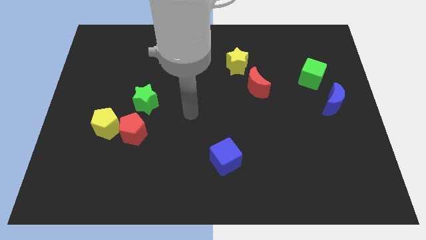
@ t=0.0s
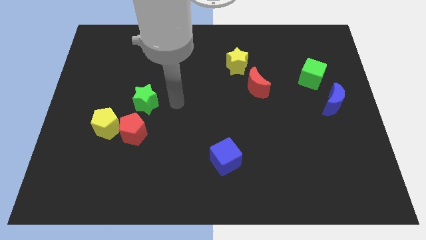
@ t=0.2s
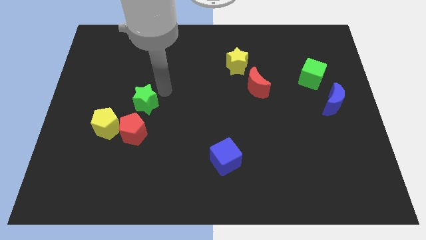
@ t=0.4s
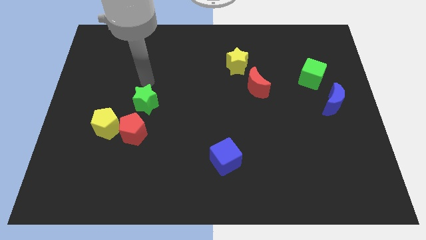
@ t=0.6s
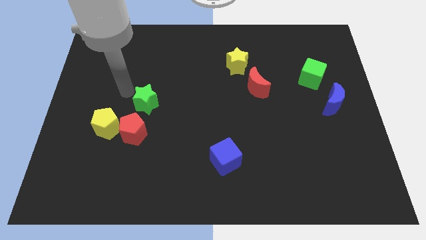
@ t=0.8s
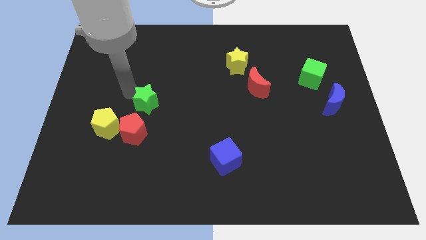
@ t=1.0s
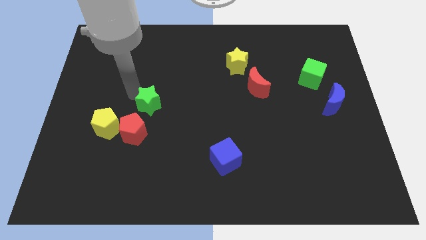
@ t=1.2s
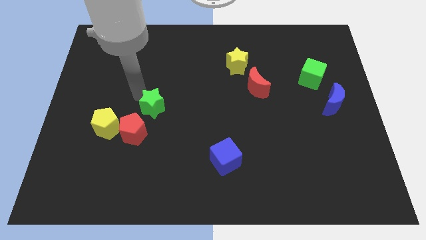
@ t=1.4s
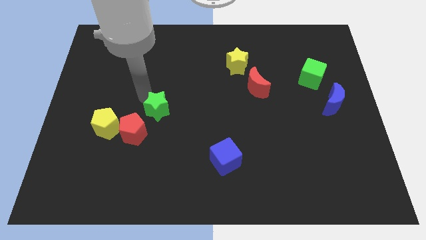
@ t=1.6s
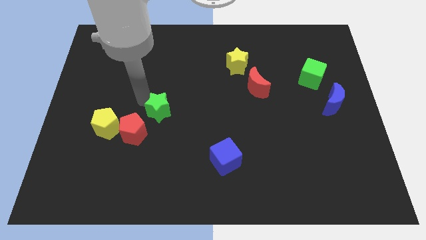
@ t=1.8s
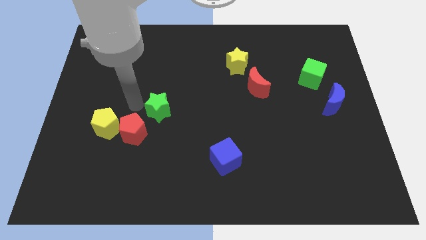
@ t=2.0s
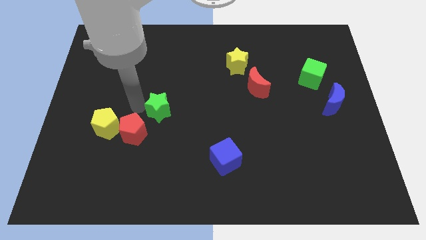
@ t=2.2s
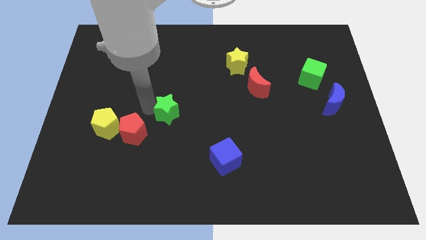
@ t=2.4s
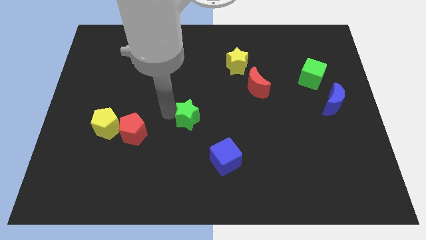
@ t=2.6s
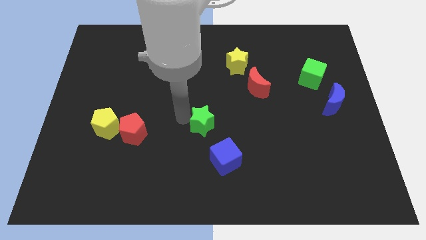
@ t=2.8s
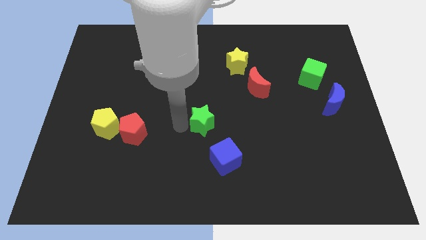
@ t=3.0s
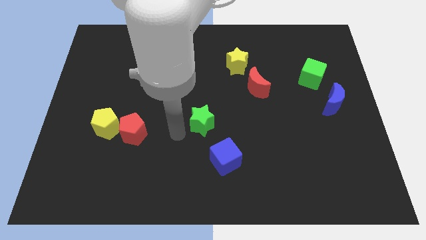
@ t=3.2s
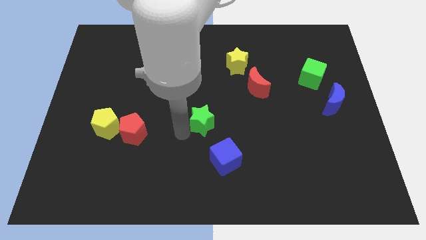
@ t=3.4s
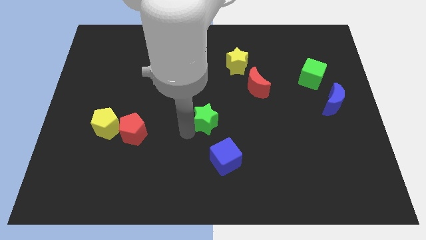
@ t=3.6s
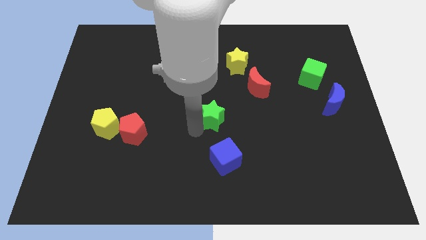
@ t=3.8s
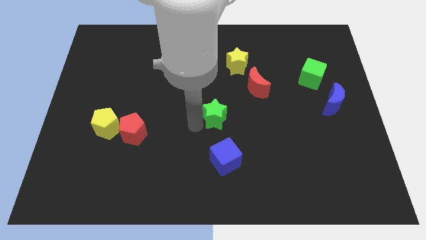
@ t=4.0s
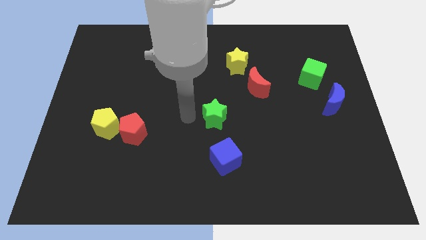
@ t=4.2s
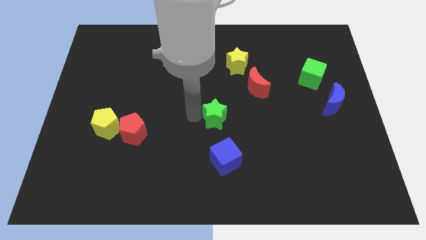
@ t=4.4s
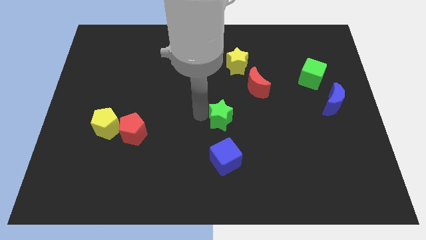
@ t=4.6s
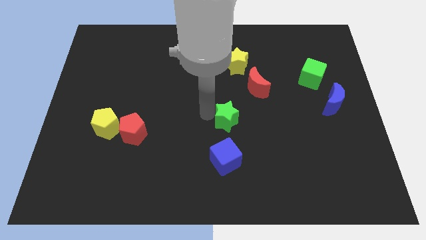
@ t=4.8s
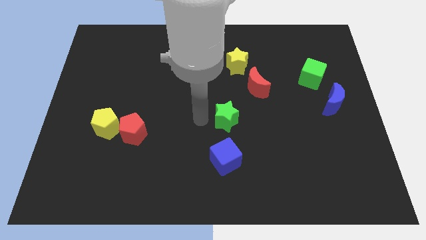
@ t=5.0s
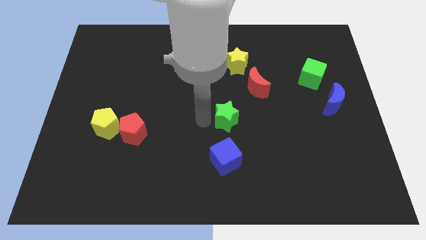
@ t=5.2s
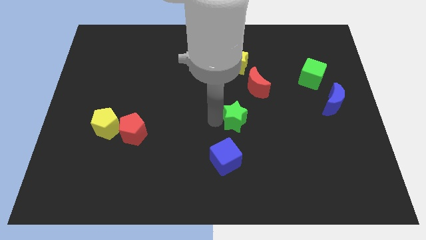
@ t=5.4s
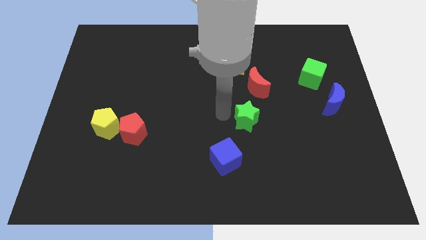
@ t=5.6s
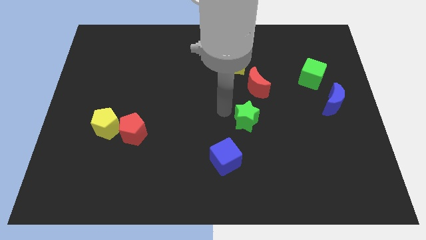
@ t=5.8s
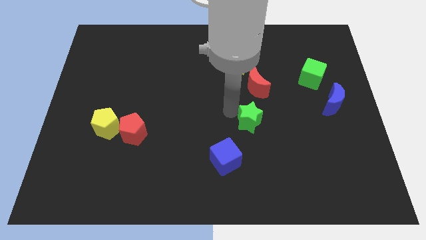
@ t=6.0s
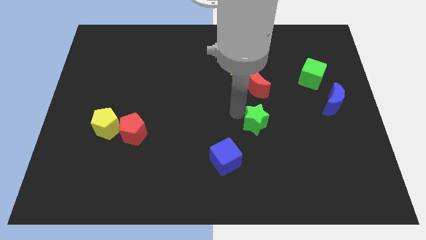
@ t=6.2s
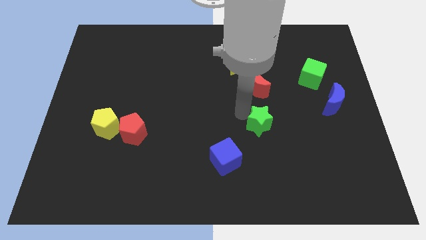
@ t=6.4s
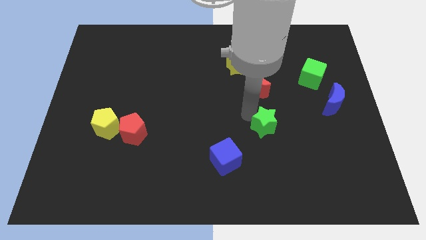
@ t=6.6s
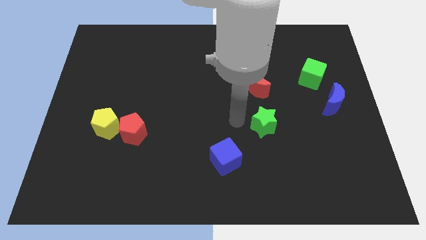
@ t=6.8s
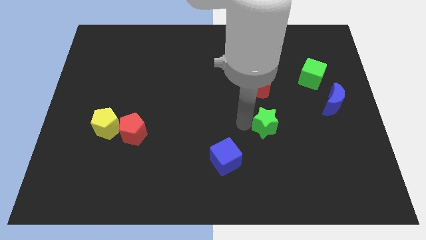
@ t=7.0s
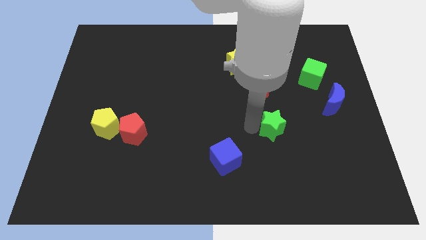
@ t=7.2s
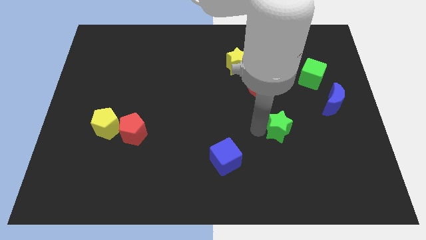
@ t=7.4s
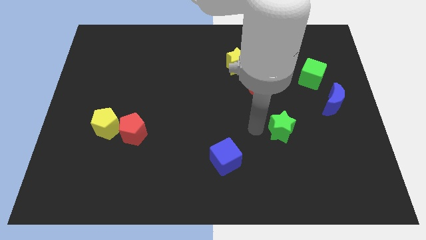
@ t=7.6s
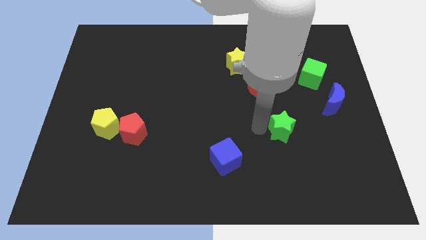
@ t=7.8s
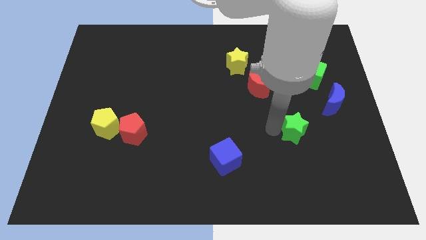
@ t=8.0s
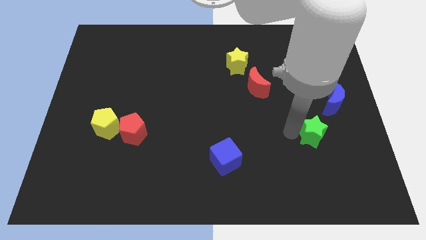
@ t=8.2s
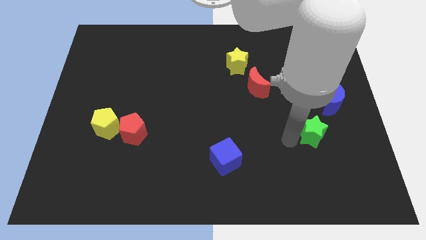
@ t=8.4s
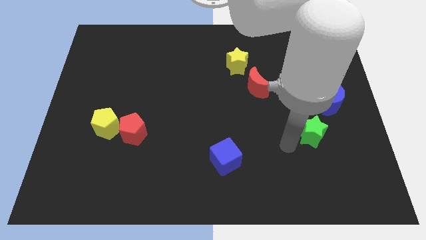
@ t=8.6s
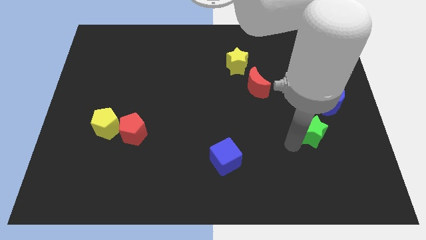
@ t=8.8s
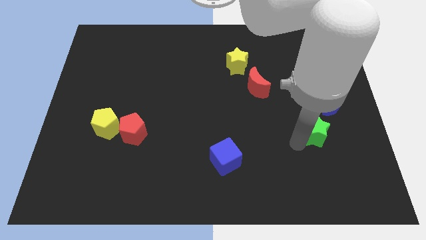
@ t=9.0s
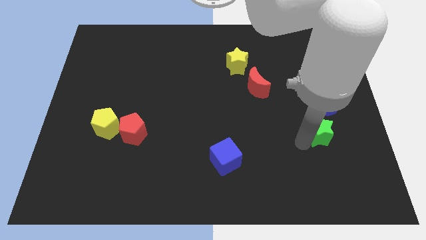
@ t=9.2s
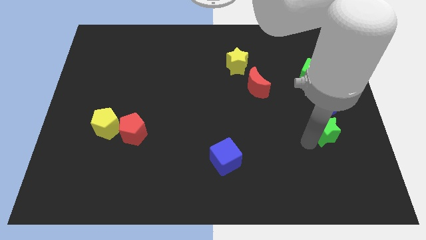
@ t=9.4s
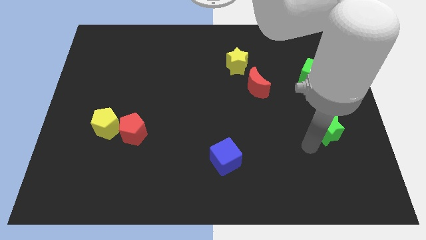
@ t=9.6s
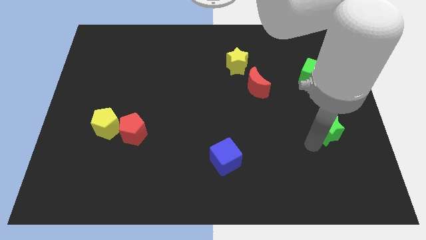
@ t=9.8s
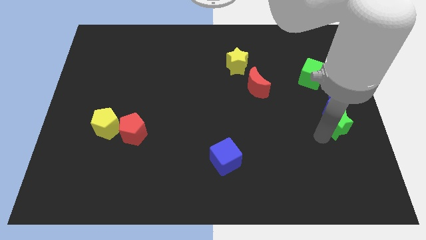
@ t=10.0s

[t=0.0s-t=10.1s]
push the green star to the center right

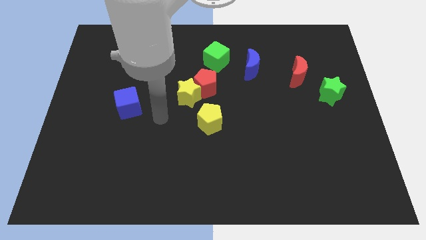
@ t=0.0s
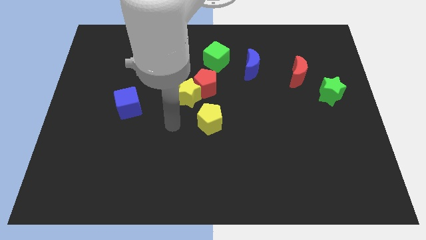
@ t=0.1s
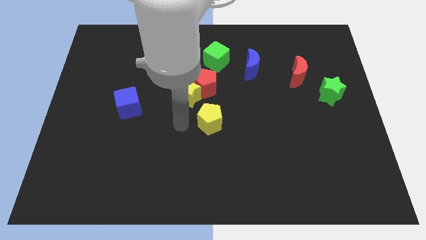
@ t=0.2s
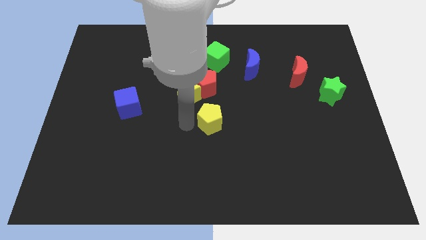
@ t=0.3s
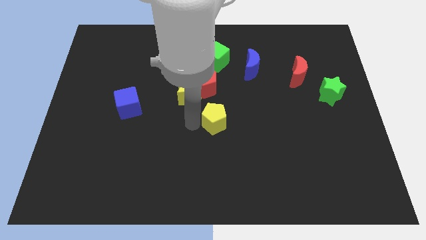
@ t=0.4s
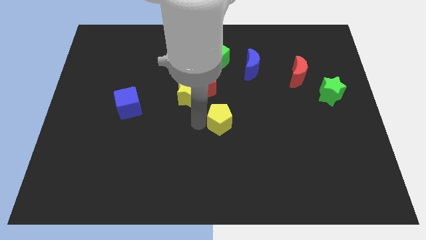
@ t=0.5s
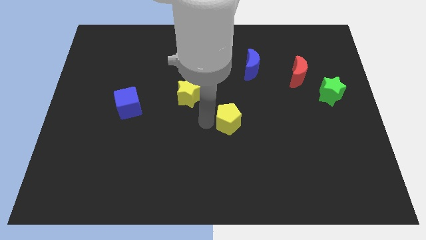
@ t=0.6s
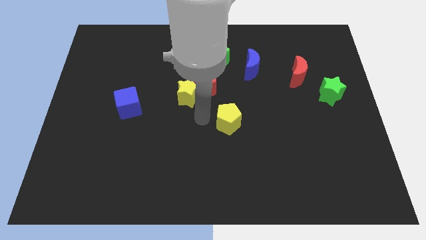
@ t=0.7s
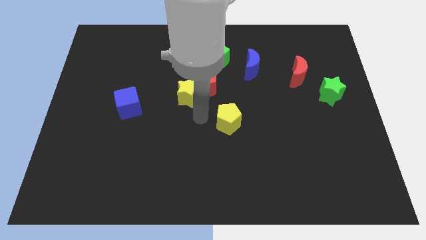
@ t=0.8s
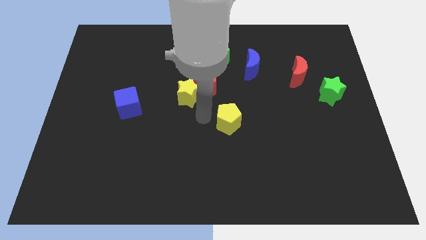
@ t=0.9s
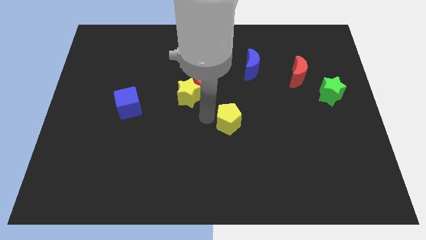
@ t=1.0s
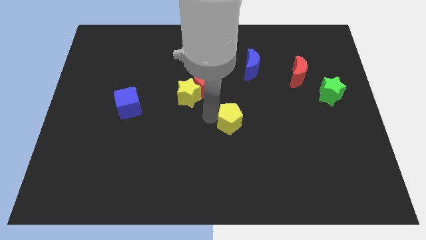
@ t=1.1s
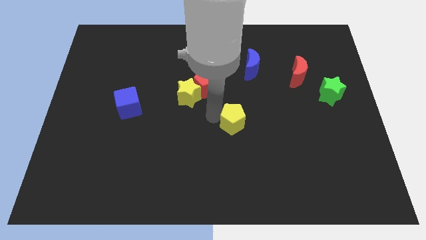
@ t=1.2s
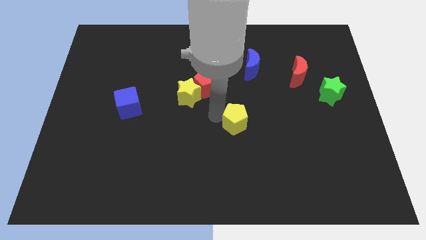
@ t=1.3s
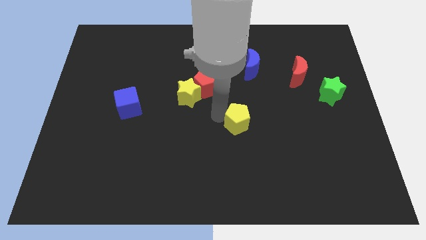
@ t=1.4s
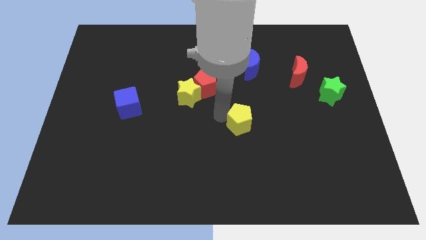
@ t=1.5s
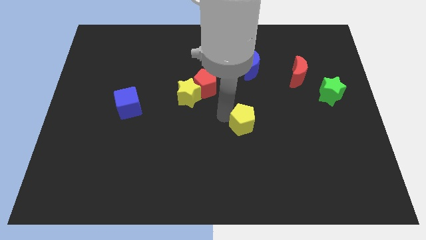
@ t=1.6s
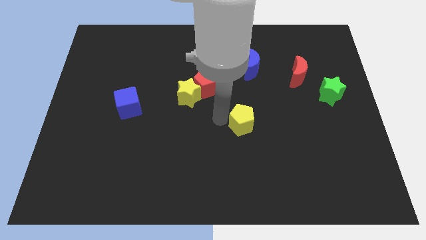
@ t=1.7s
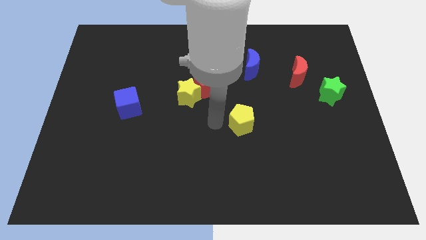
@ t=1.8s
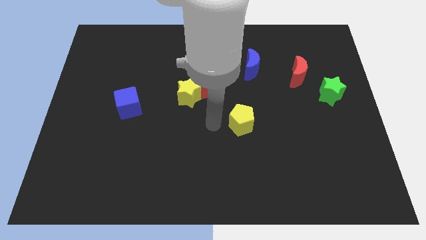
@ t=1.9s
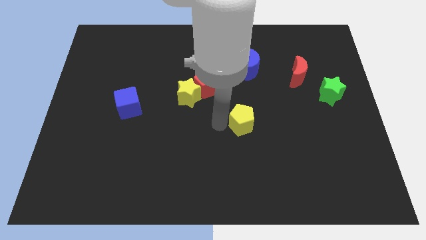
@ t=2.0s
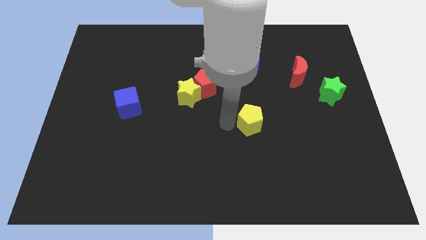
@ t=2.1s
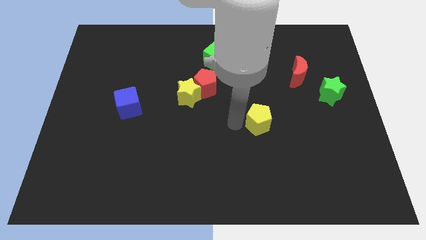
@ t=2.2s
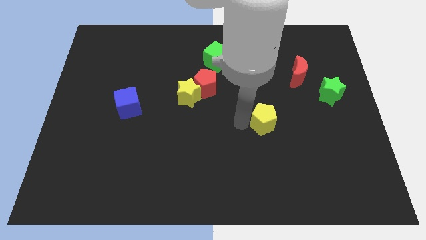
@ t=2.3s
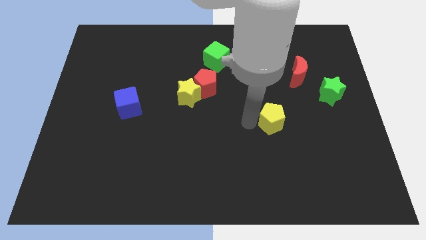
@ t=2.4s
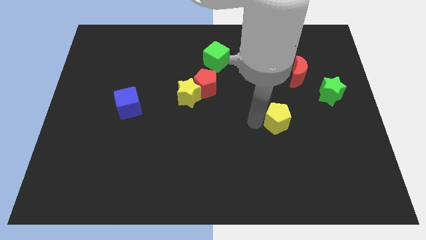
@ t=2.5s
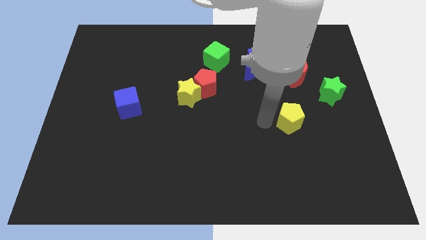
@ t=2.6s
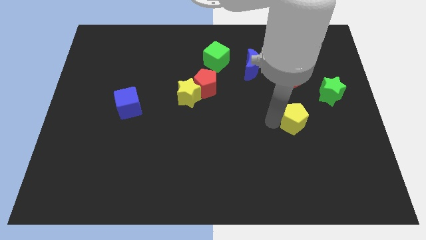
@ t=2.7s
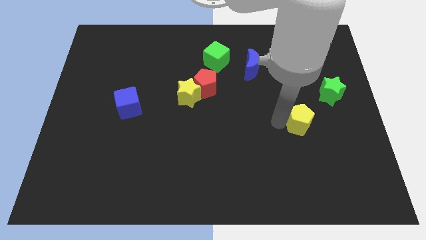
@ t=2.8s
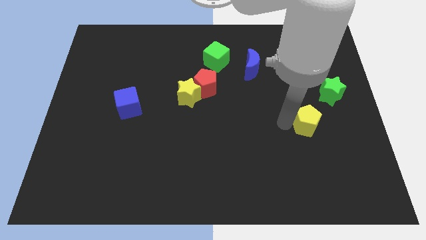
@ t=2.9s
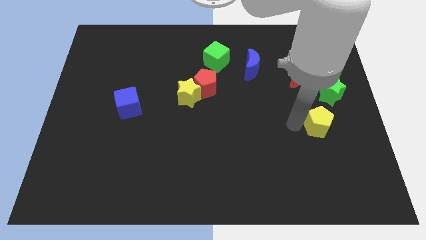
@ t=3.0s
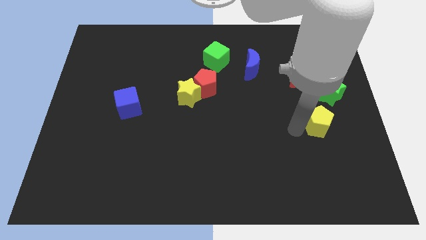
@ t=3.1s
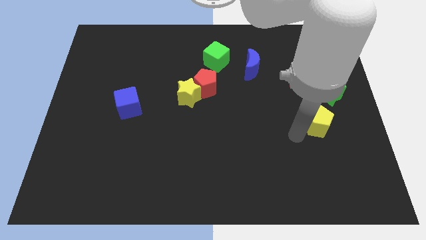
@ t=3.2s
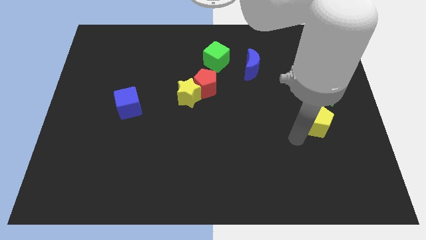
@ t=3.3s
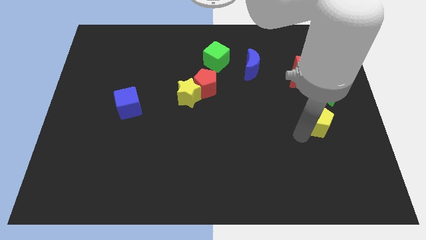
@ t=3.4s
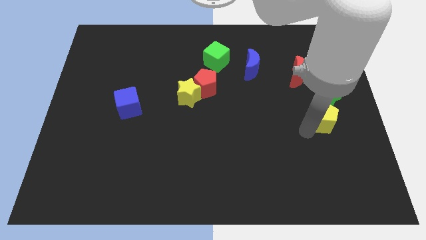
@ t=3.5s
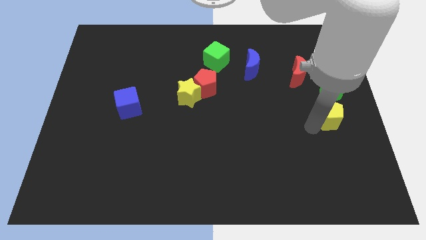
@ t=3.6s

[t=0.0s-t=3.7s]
move the yellow pentagon to the center right
